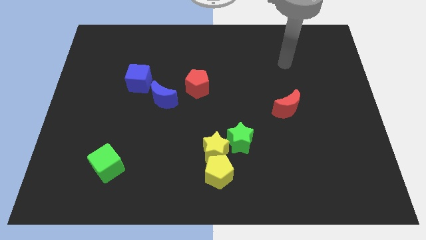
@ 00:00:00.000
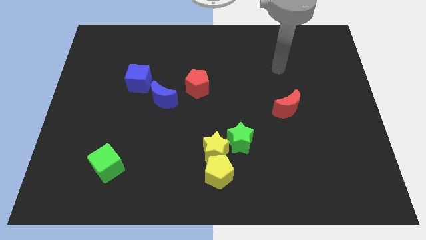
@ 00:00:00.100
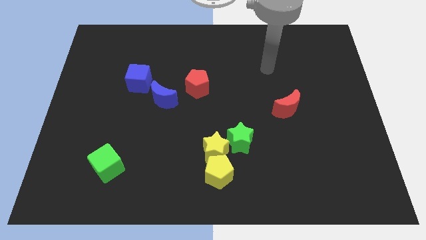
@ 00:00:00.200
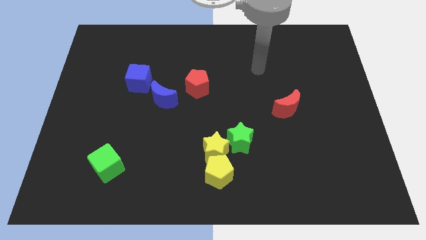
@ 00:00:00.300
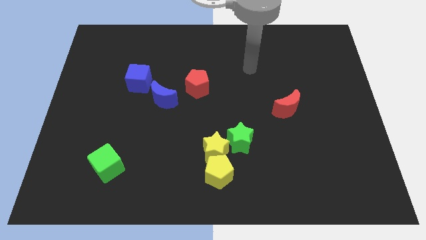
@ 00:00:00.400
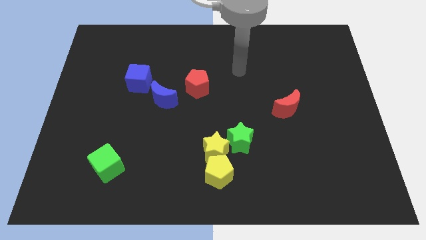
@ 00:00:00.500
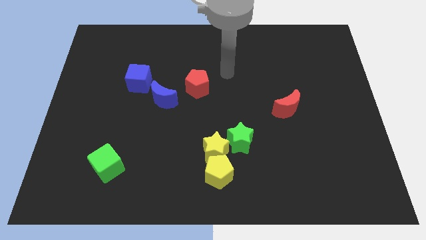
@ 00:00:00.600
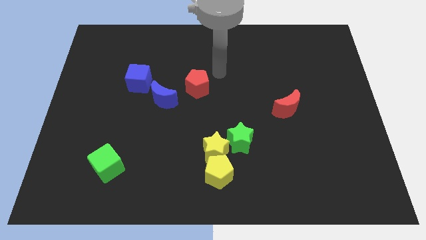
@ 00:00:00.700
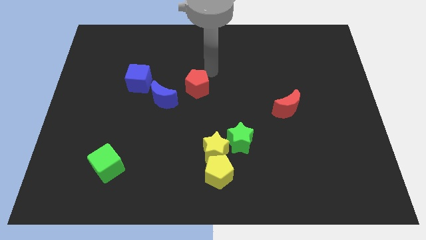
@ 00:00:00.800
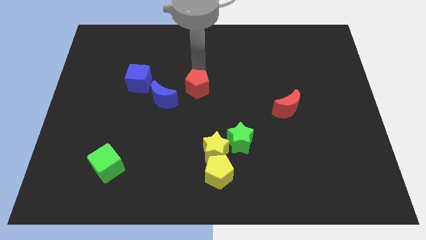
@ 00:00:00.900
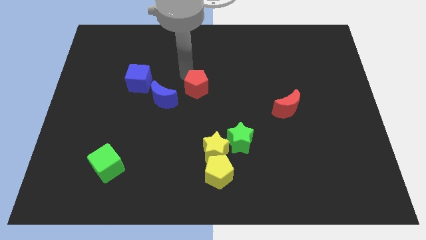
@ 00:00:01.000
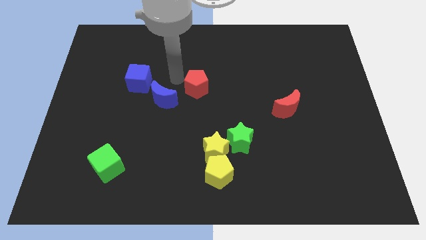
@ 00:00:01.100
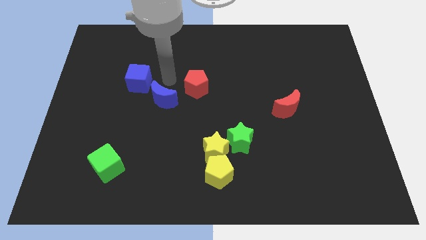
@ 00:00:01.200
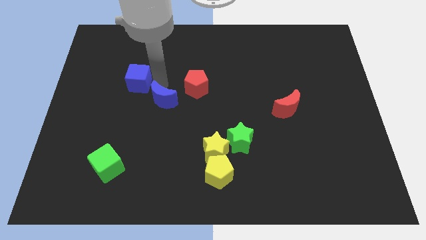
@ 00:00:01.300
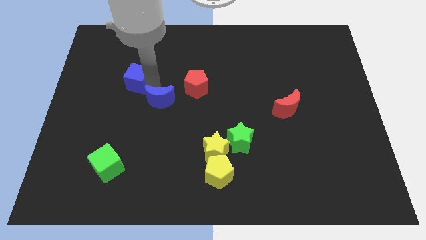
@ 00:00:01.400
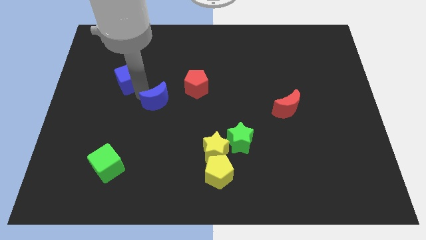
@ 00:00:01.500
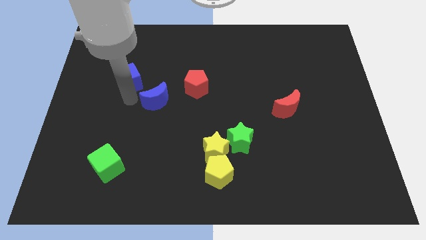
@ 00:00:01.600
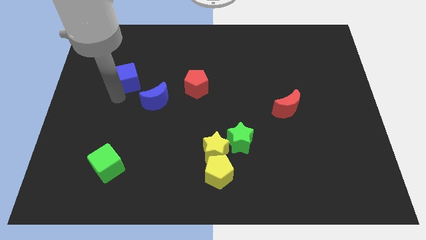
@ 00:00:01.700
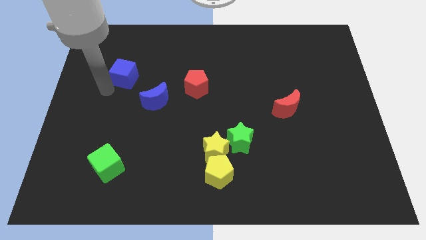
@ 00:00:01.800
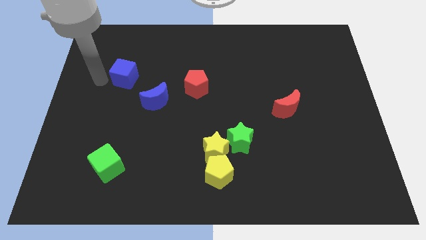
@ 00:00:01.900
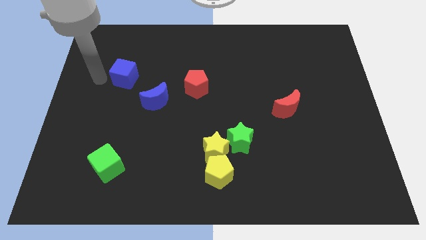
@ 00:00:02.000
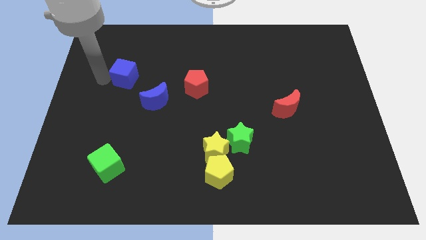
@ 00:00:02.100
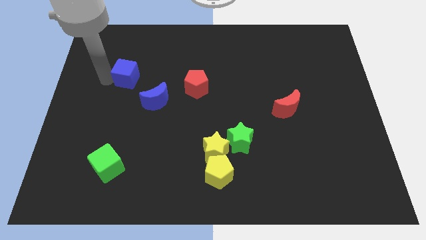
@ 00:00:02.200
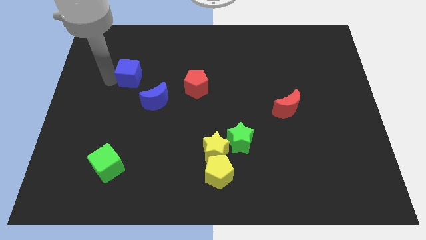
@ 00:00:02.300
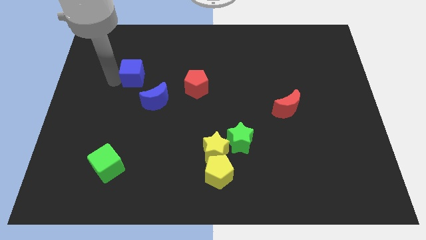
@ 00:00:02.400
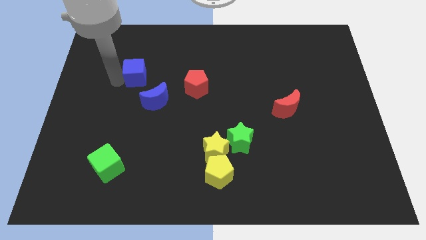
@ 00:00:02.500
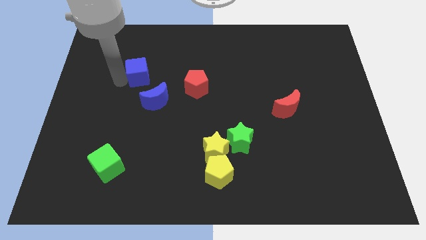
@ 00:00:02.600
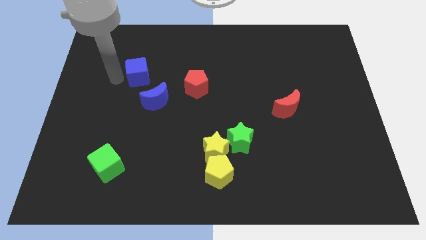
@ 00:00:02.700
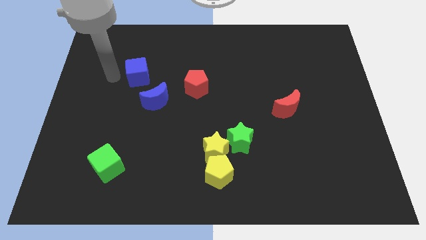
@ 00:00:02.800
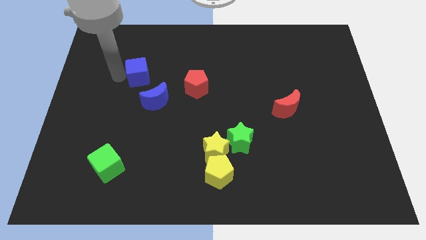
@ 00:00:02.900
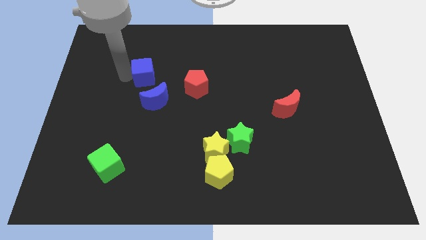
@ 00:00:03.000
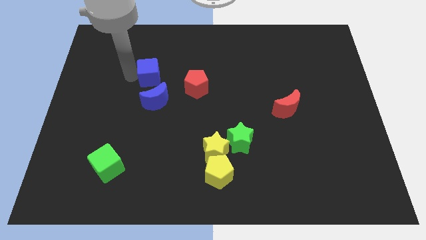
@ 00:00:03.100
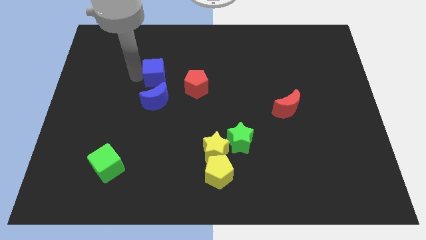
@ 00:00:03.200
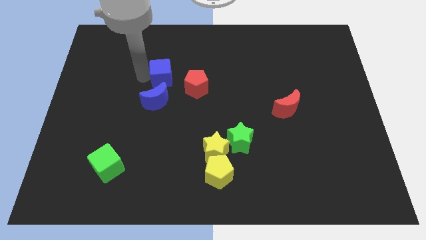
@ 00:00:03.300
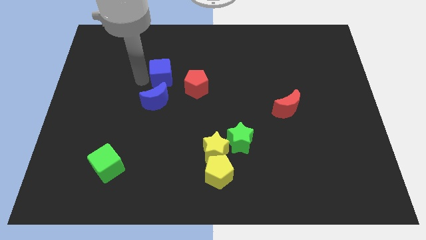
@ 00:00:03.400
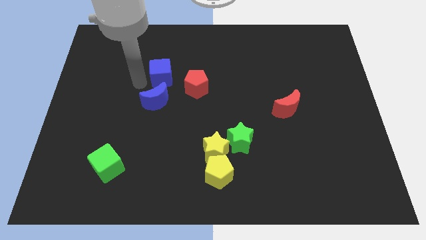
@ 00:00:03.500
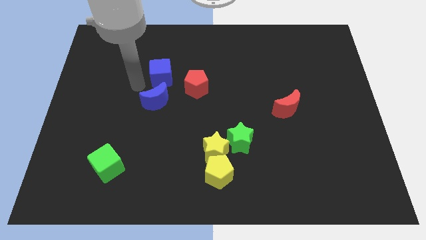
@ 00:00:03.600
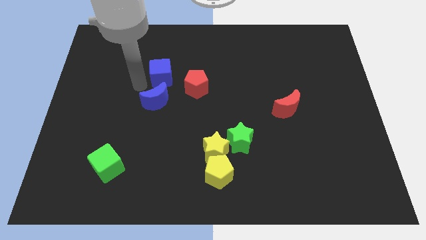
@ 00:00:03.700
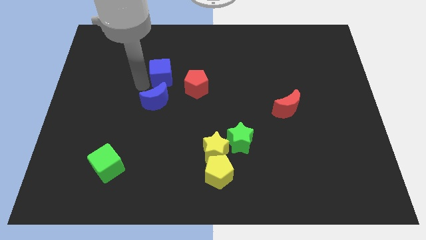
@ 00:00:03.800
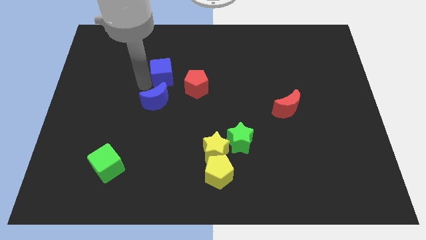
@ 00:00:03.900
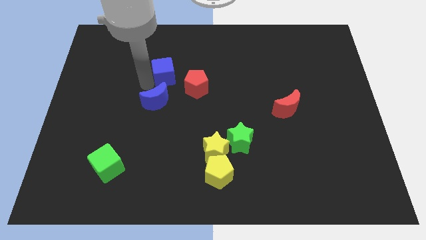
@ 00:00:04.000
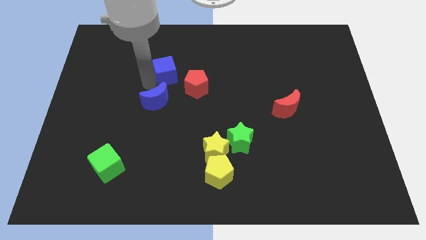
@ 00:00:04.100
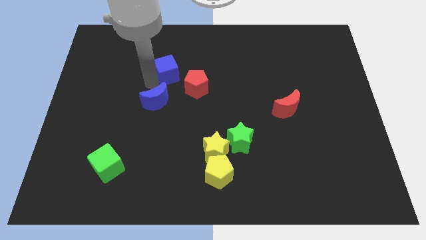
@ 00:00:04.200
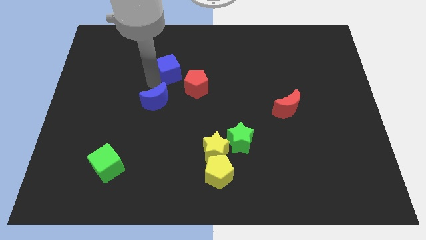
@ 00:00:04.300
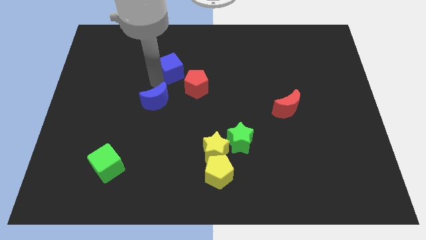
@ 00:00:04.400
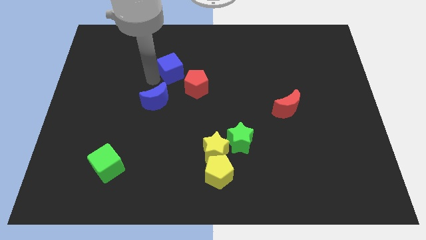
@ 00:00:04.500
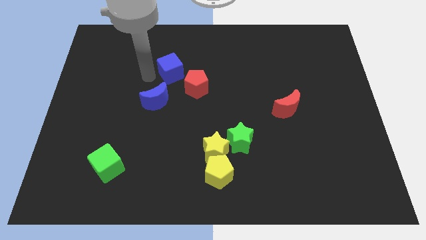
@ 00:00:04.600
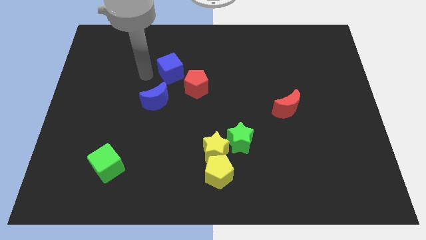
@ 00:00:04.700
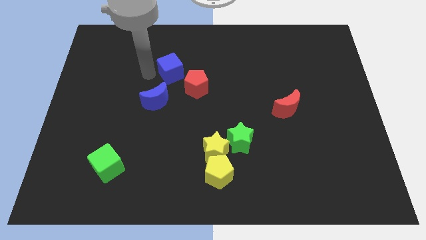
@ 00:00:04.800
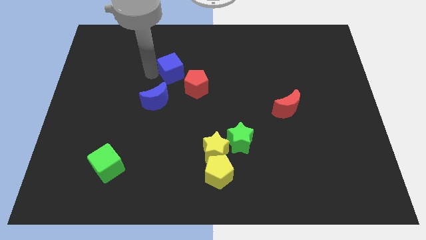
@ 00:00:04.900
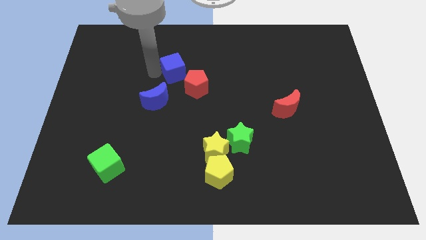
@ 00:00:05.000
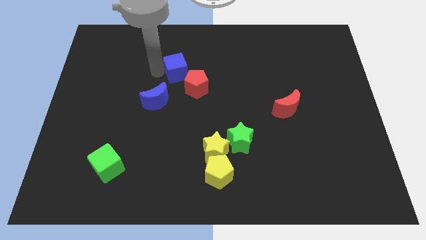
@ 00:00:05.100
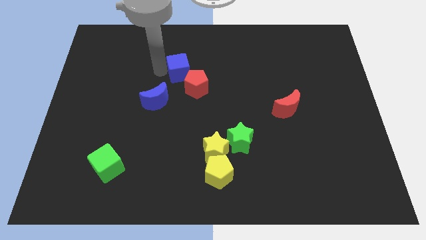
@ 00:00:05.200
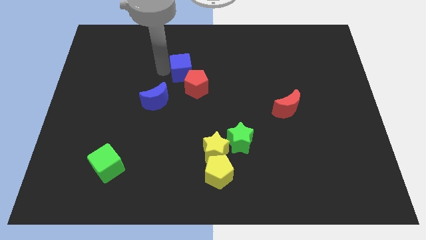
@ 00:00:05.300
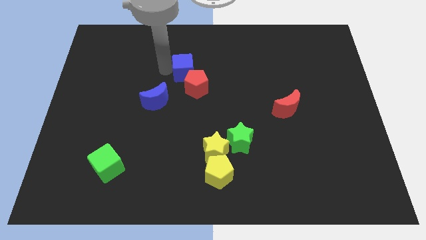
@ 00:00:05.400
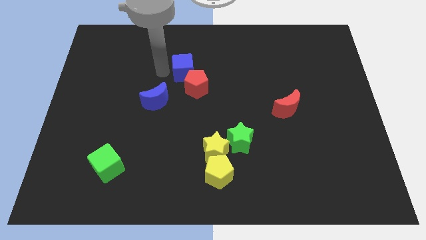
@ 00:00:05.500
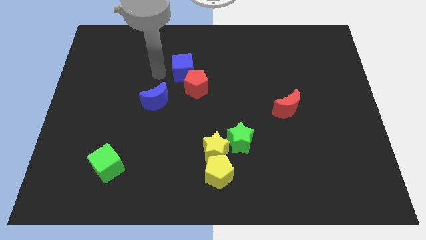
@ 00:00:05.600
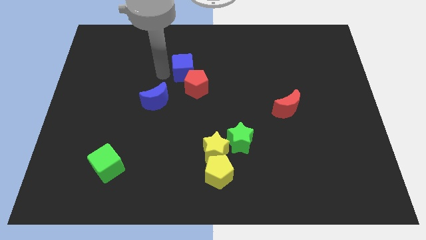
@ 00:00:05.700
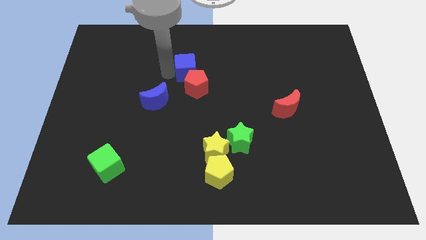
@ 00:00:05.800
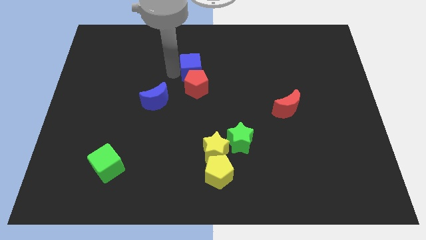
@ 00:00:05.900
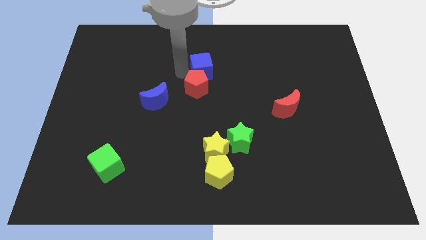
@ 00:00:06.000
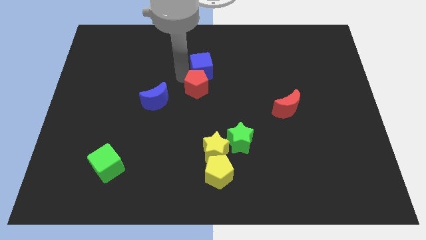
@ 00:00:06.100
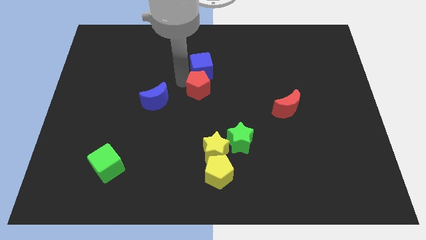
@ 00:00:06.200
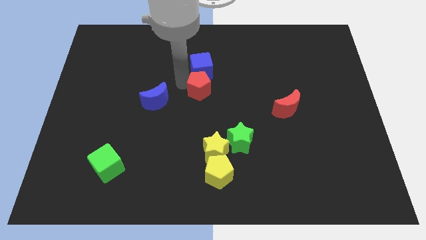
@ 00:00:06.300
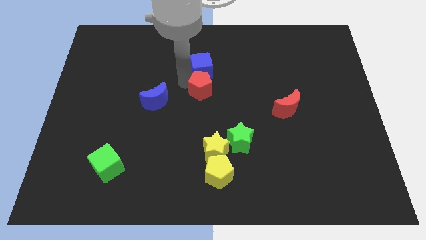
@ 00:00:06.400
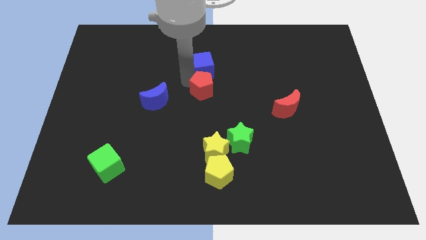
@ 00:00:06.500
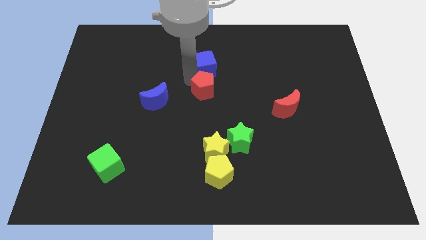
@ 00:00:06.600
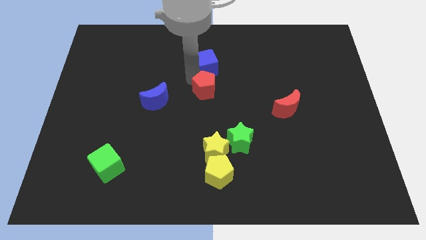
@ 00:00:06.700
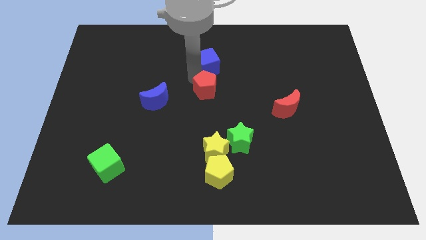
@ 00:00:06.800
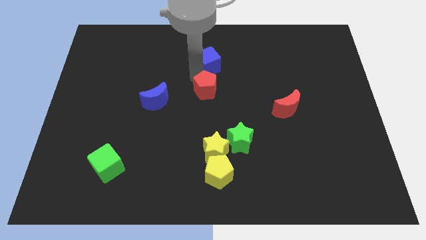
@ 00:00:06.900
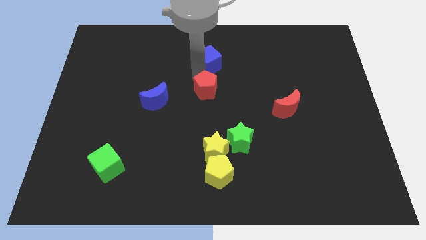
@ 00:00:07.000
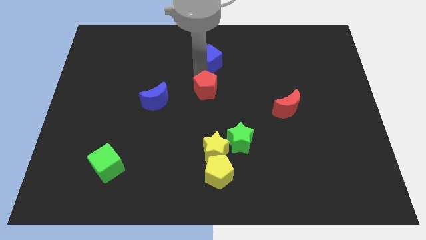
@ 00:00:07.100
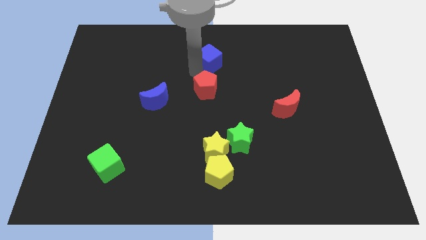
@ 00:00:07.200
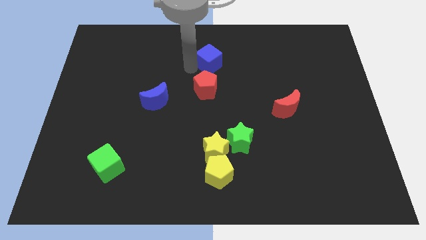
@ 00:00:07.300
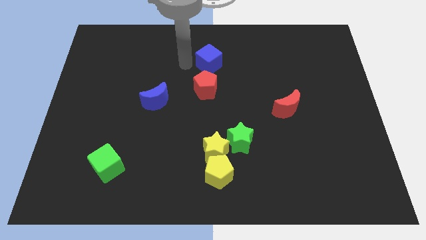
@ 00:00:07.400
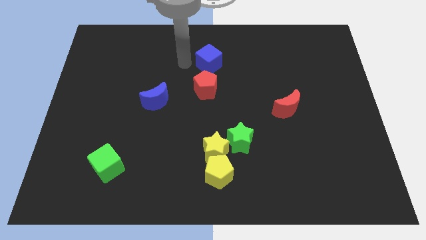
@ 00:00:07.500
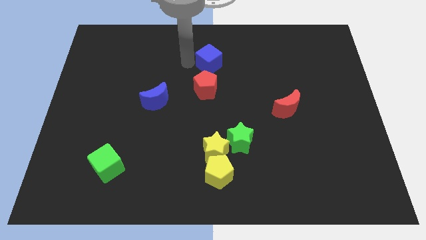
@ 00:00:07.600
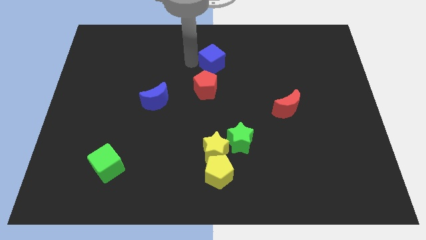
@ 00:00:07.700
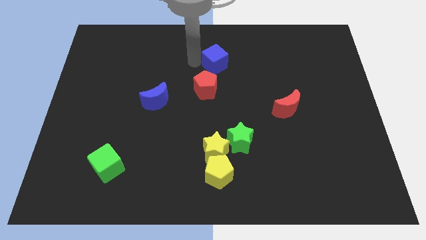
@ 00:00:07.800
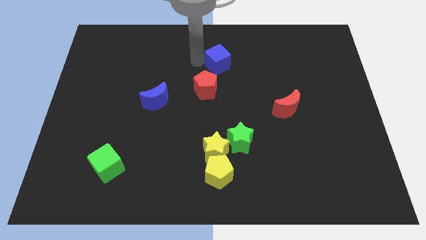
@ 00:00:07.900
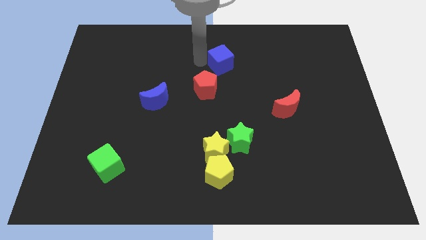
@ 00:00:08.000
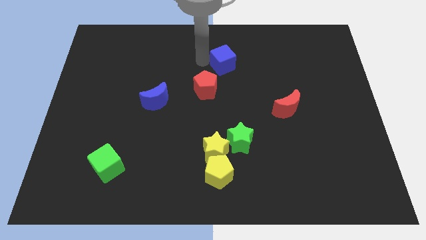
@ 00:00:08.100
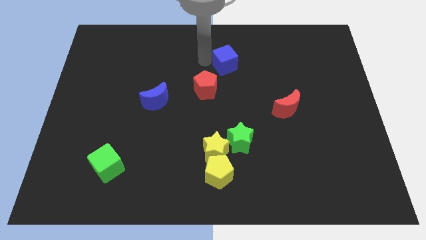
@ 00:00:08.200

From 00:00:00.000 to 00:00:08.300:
move the blue cube right

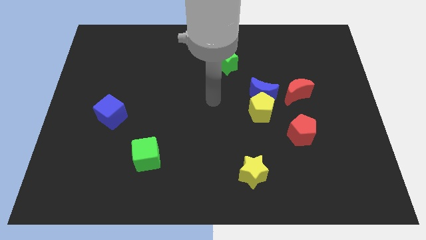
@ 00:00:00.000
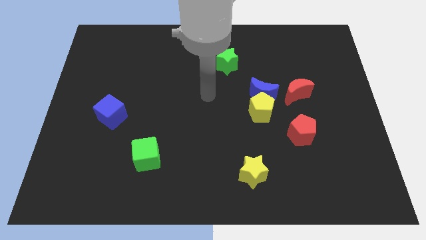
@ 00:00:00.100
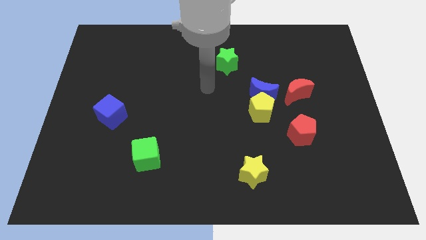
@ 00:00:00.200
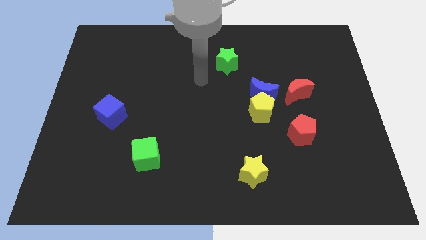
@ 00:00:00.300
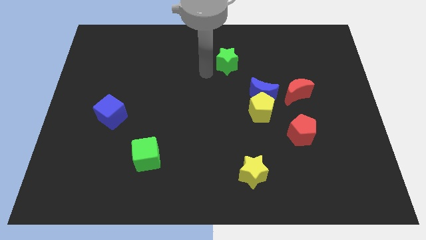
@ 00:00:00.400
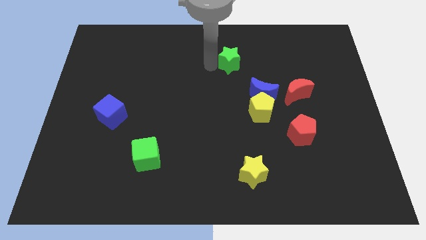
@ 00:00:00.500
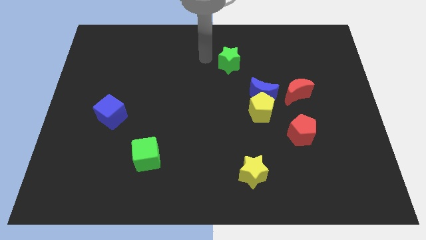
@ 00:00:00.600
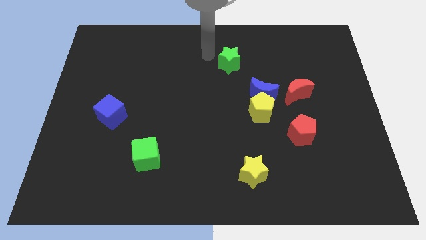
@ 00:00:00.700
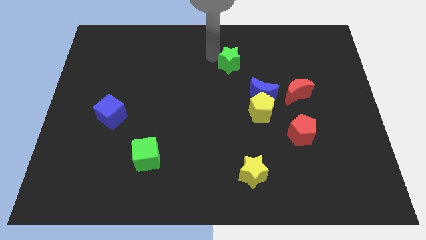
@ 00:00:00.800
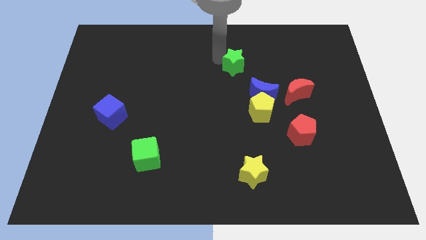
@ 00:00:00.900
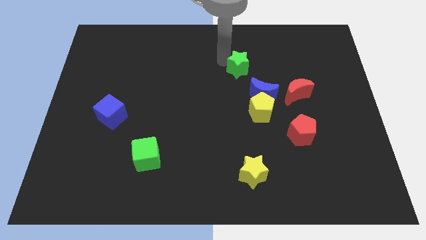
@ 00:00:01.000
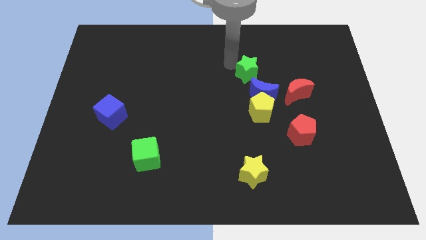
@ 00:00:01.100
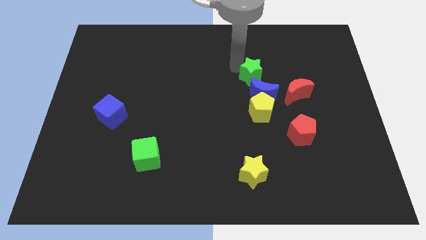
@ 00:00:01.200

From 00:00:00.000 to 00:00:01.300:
slightly slide the green star diagonally downwards and to the right
